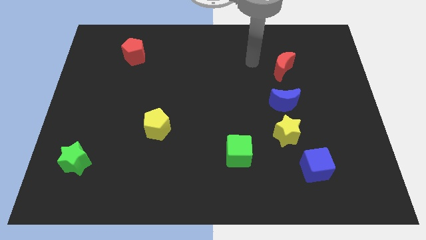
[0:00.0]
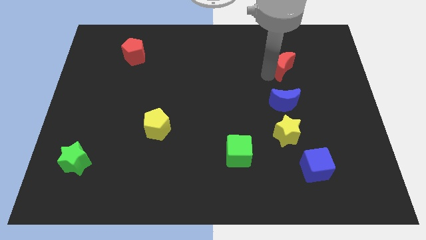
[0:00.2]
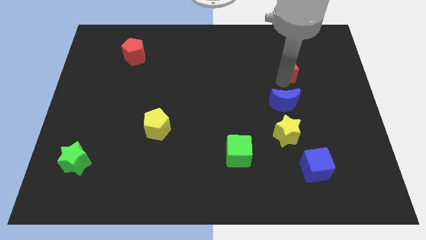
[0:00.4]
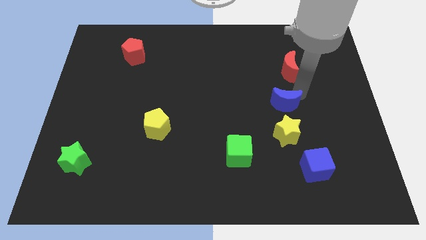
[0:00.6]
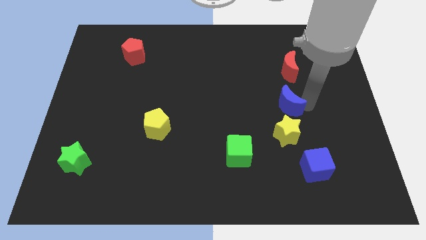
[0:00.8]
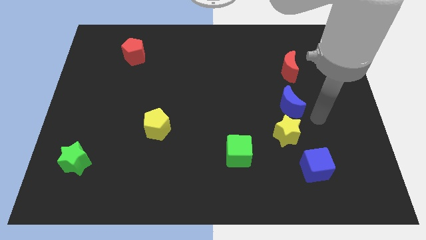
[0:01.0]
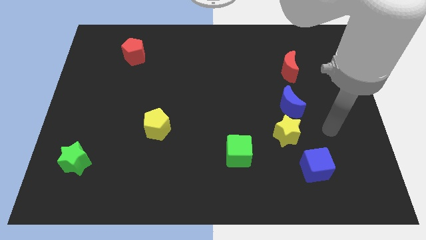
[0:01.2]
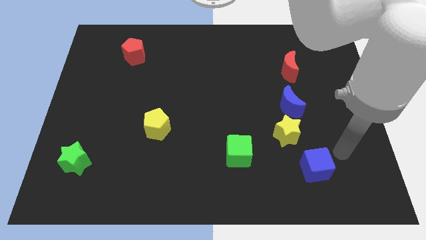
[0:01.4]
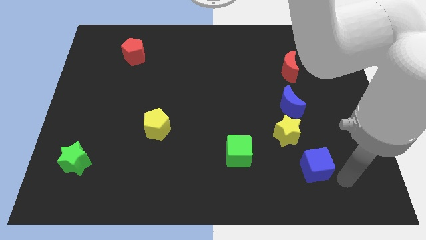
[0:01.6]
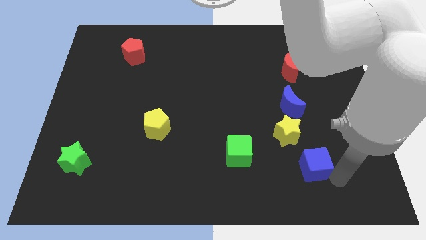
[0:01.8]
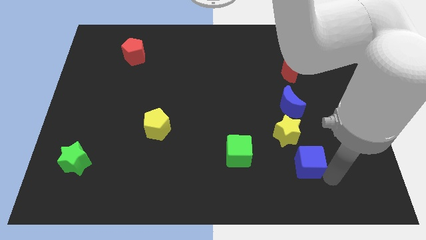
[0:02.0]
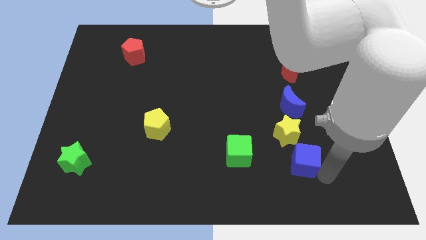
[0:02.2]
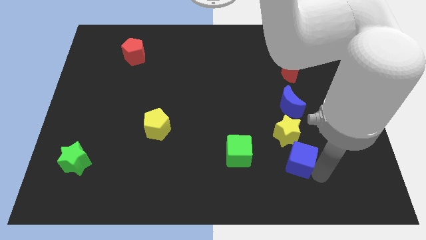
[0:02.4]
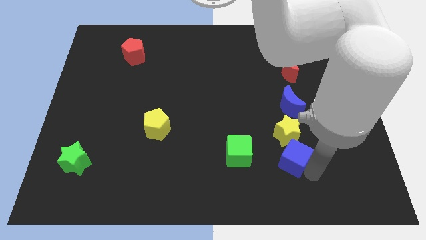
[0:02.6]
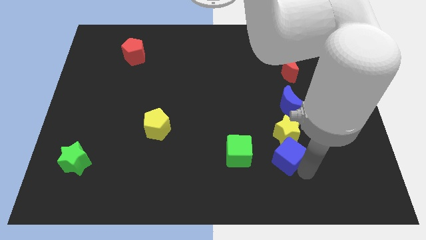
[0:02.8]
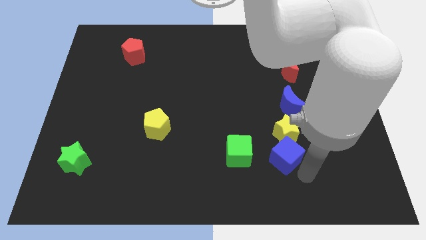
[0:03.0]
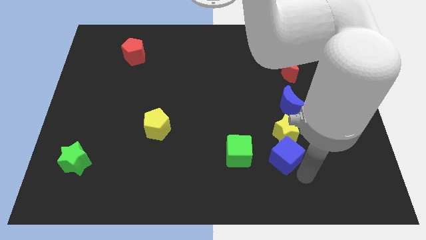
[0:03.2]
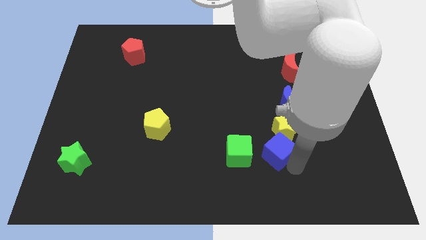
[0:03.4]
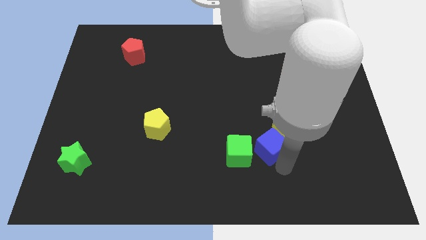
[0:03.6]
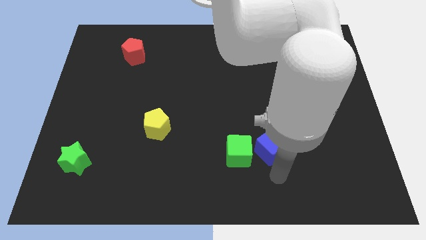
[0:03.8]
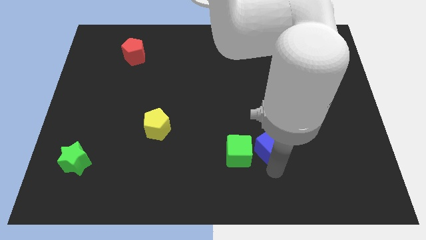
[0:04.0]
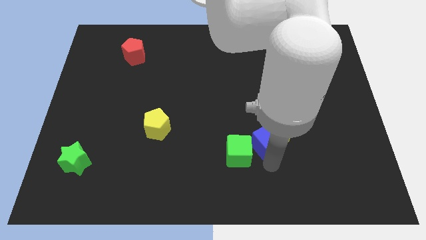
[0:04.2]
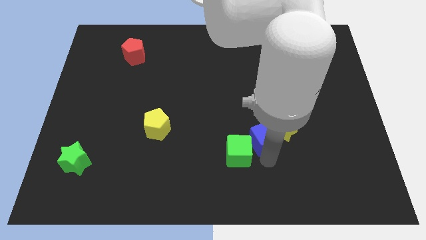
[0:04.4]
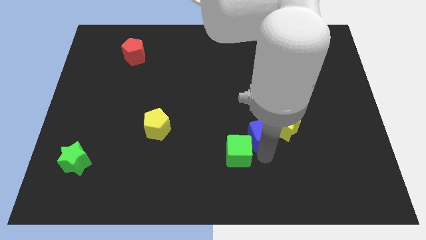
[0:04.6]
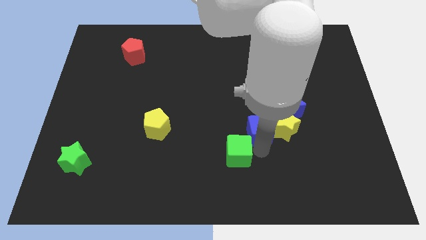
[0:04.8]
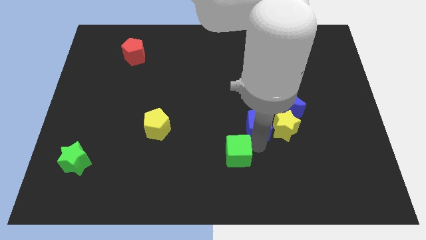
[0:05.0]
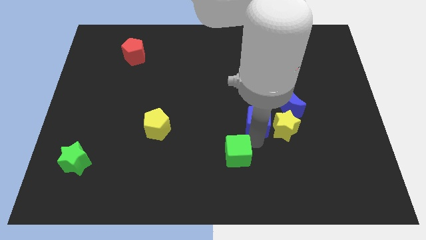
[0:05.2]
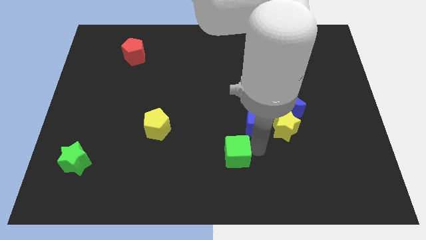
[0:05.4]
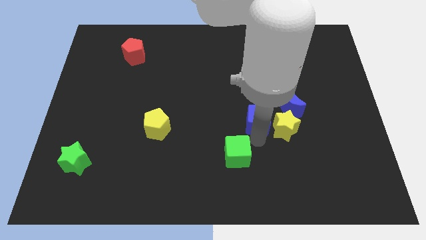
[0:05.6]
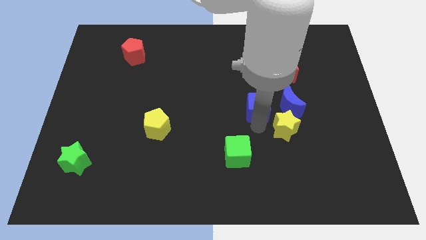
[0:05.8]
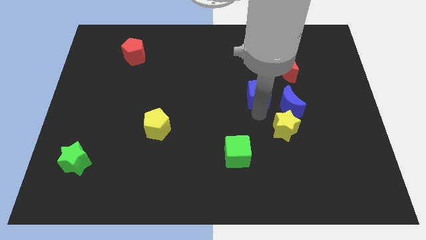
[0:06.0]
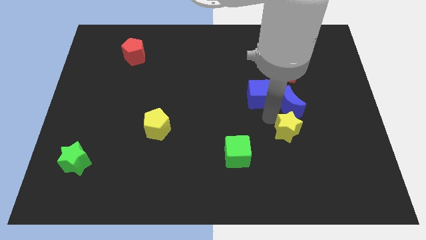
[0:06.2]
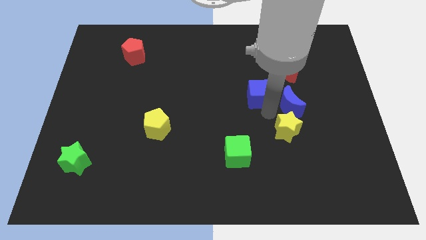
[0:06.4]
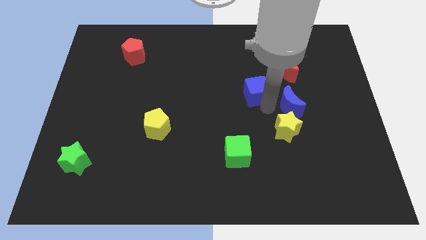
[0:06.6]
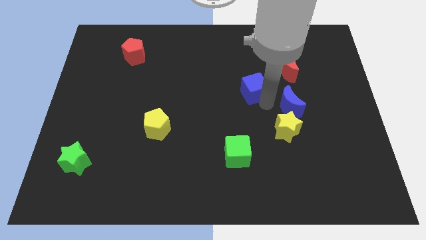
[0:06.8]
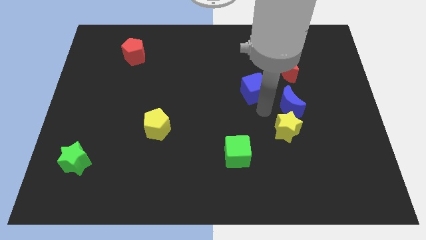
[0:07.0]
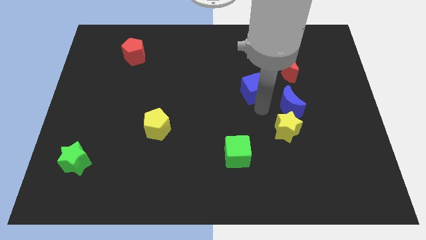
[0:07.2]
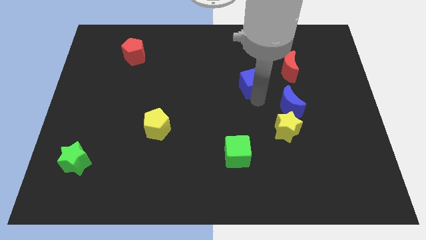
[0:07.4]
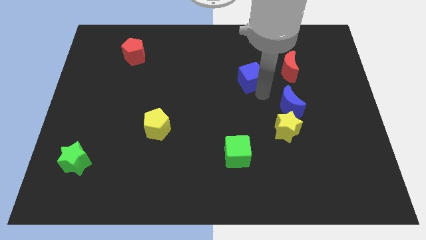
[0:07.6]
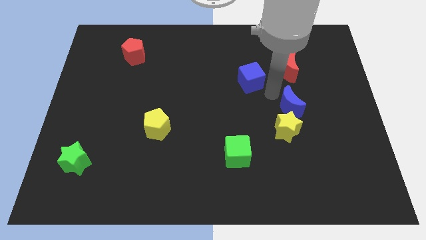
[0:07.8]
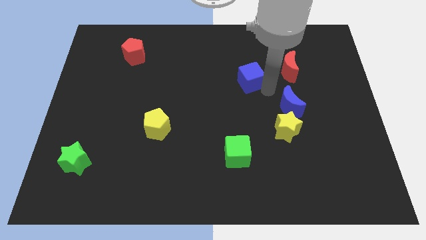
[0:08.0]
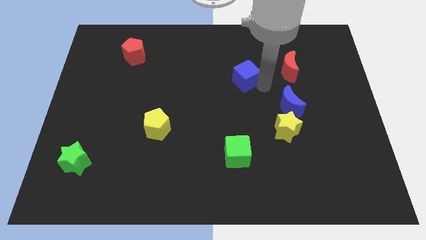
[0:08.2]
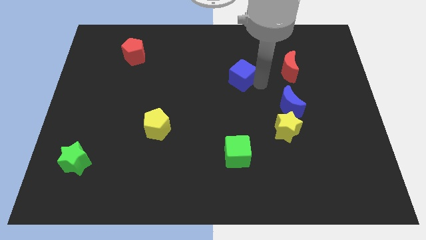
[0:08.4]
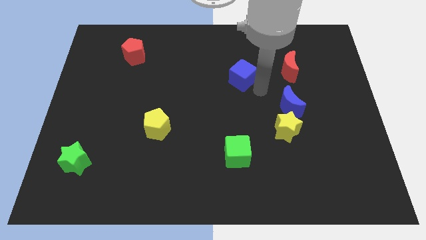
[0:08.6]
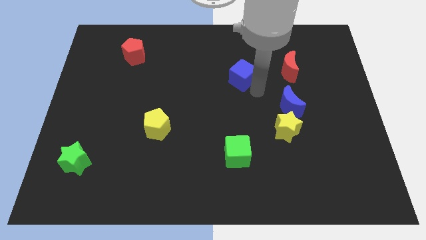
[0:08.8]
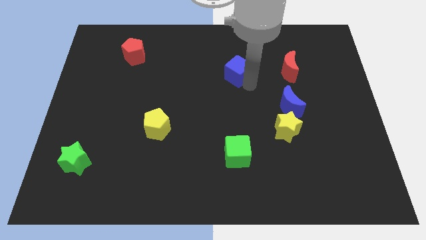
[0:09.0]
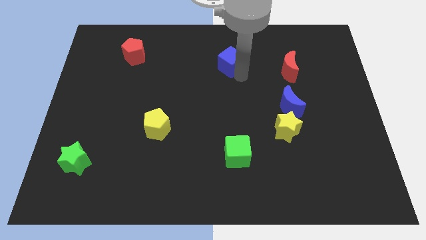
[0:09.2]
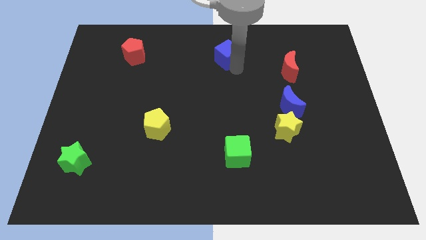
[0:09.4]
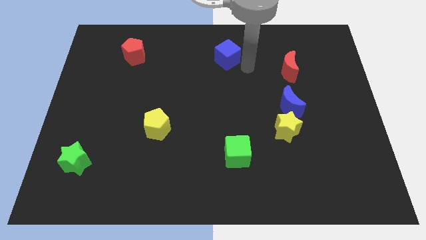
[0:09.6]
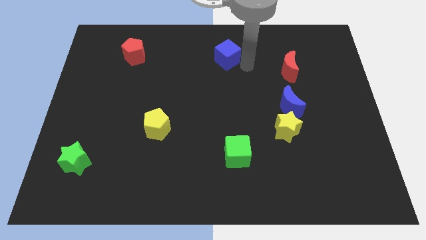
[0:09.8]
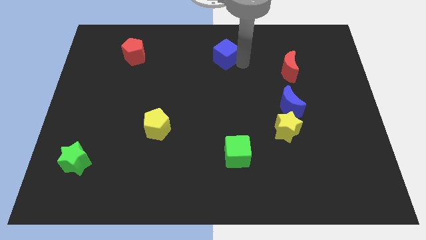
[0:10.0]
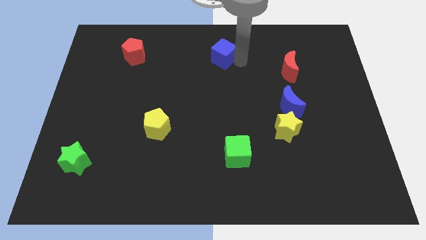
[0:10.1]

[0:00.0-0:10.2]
push the blue cube to the towards your base

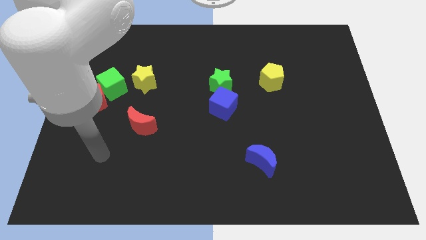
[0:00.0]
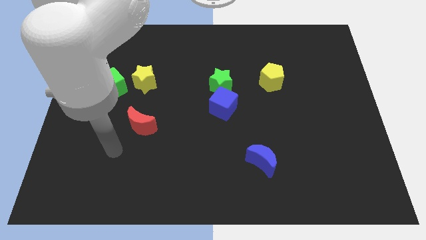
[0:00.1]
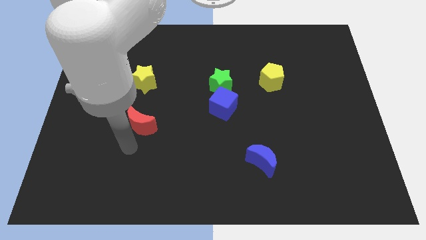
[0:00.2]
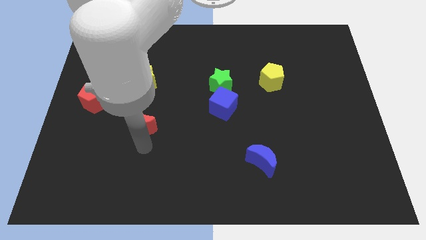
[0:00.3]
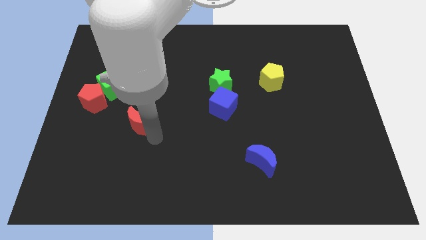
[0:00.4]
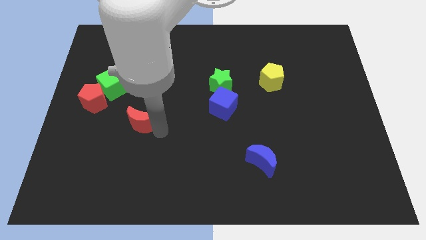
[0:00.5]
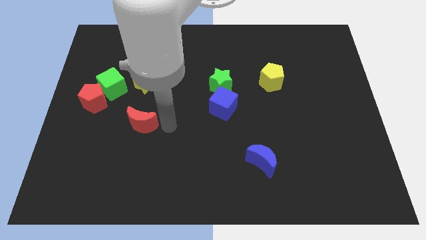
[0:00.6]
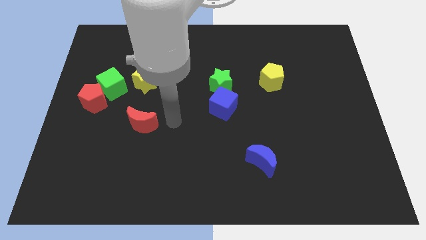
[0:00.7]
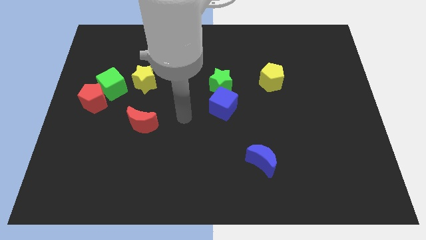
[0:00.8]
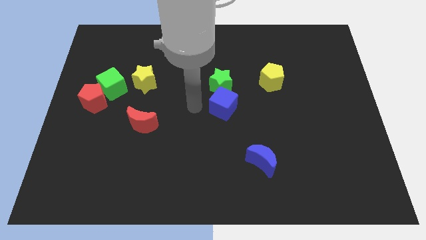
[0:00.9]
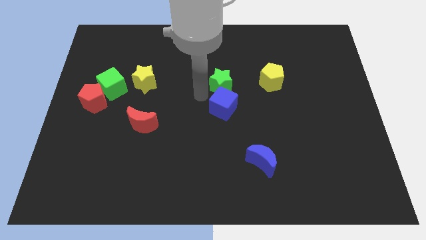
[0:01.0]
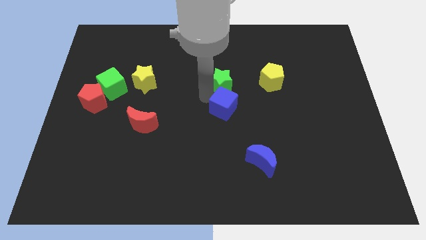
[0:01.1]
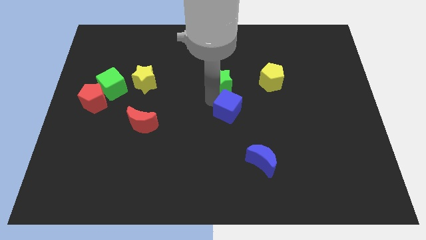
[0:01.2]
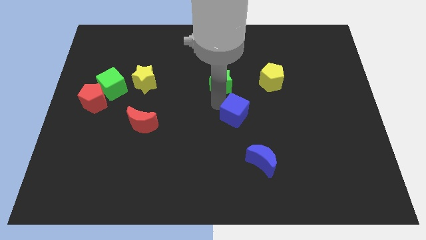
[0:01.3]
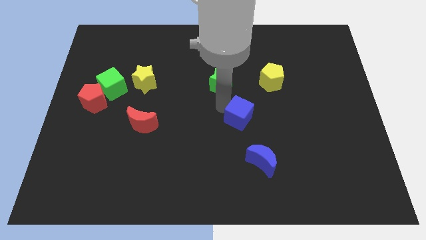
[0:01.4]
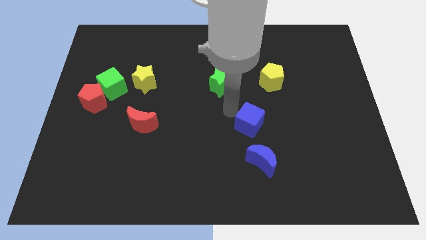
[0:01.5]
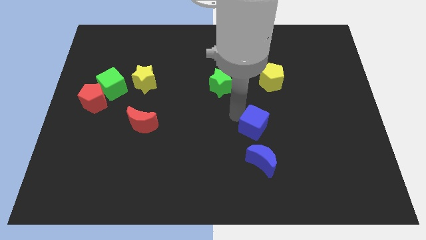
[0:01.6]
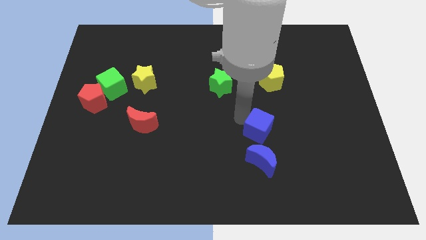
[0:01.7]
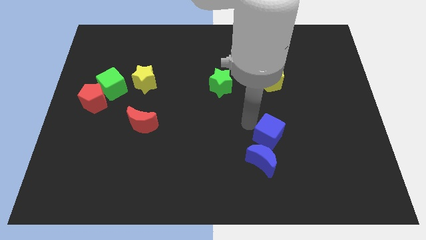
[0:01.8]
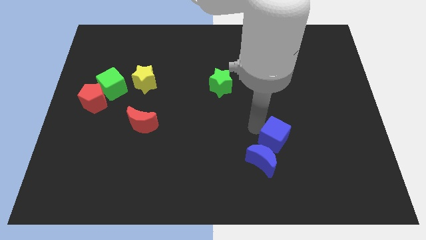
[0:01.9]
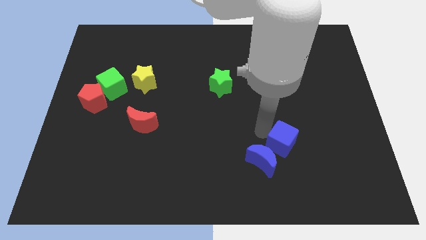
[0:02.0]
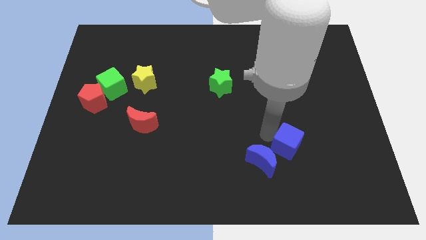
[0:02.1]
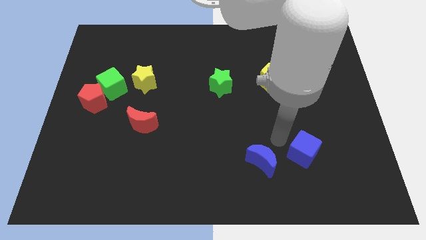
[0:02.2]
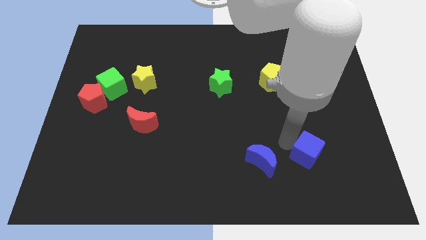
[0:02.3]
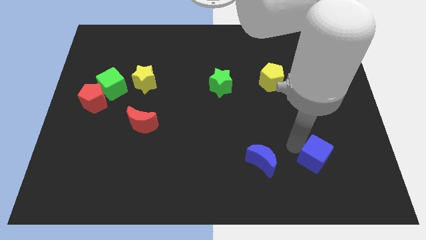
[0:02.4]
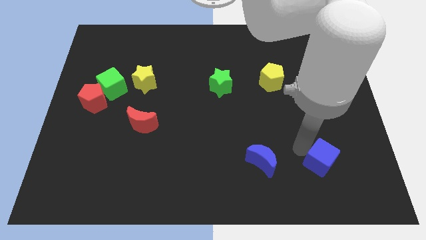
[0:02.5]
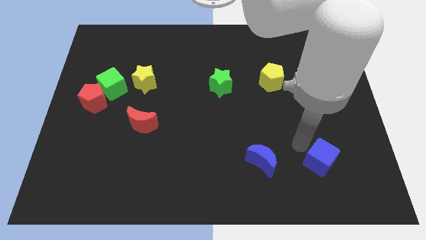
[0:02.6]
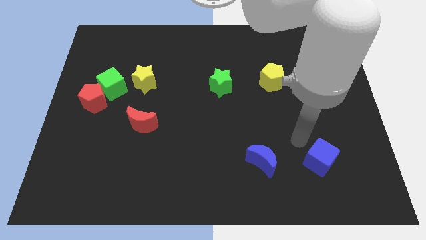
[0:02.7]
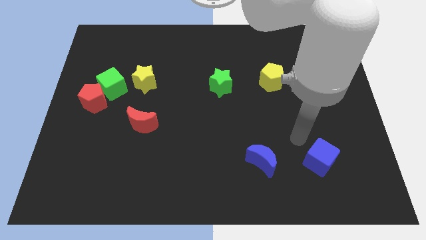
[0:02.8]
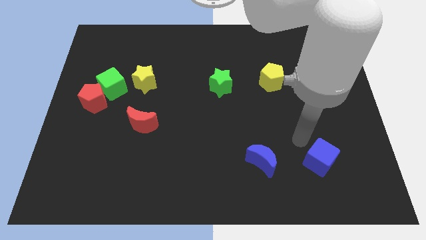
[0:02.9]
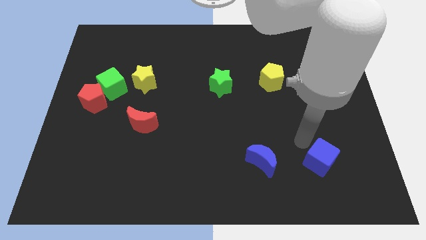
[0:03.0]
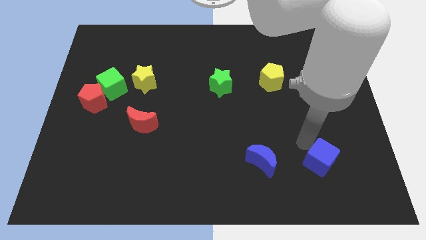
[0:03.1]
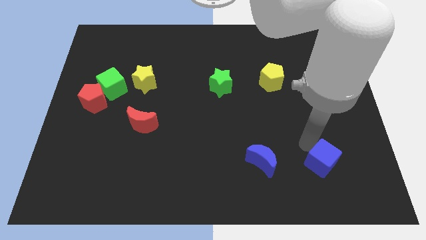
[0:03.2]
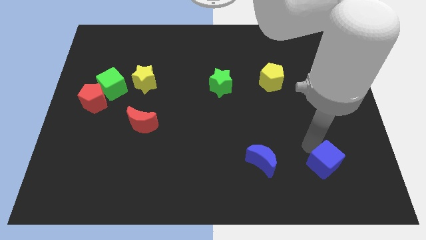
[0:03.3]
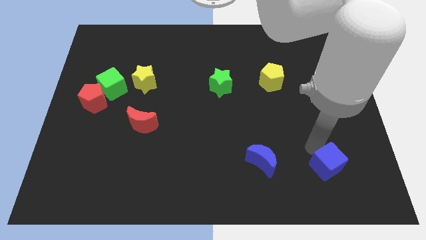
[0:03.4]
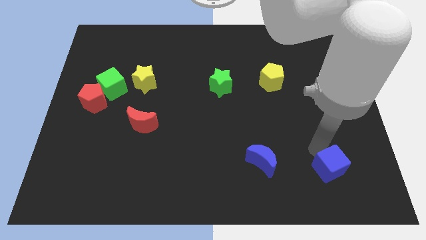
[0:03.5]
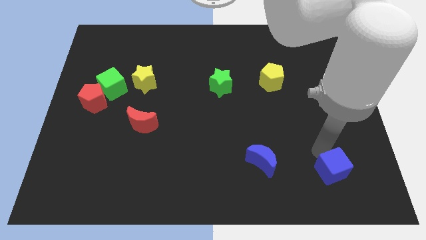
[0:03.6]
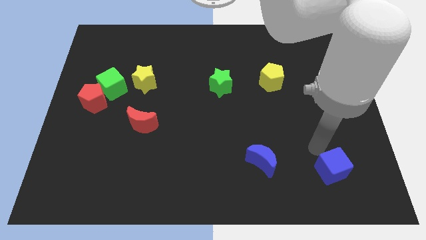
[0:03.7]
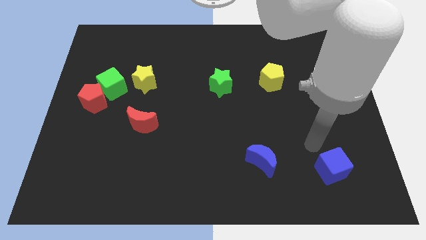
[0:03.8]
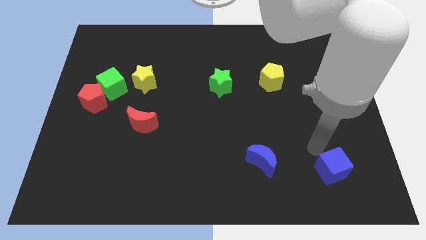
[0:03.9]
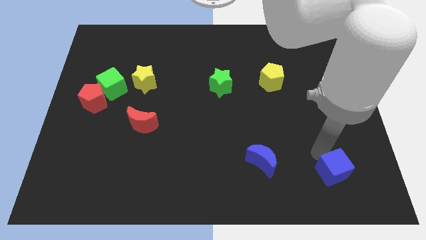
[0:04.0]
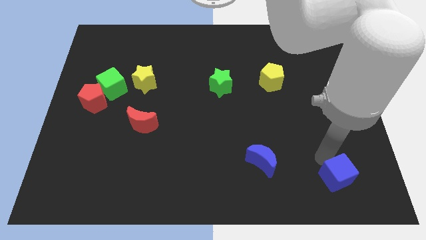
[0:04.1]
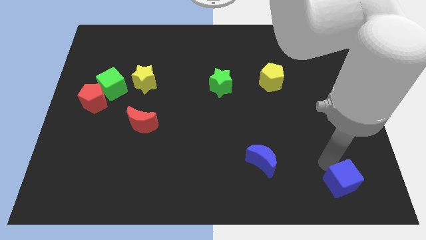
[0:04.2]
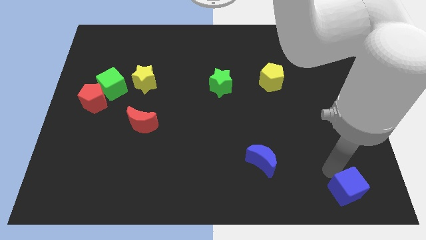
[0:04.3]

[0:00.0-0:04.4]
slide the blue cube to the bottom right
